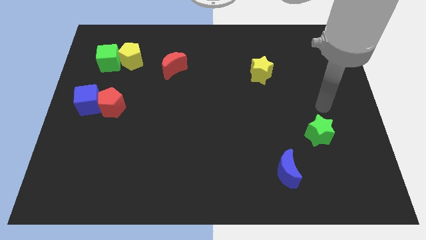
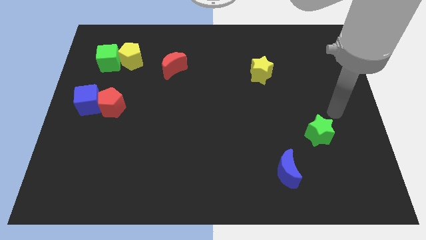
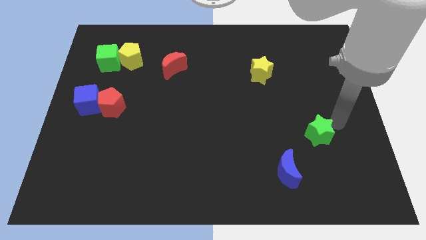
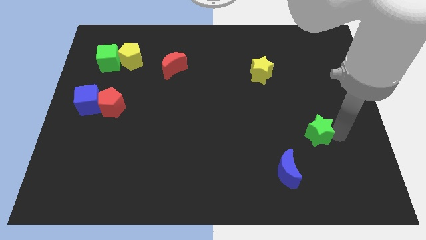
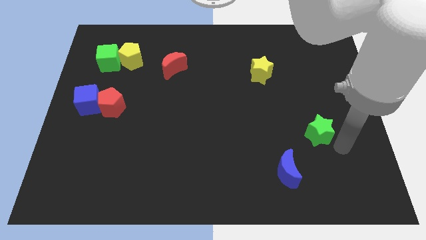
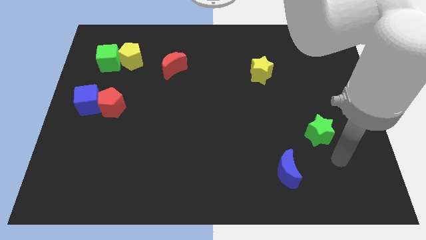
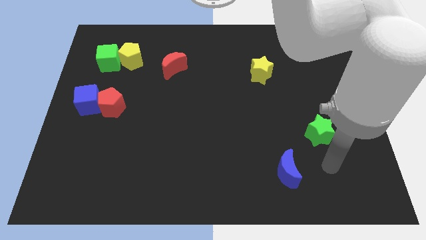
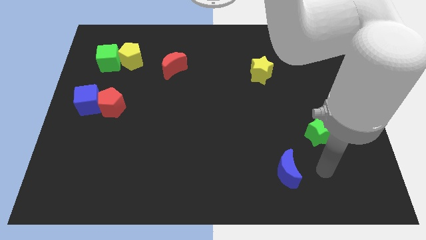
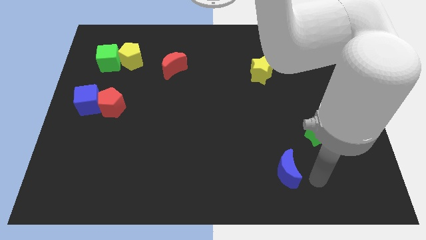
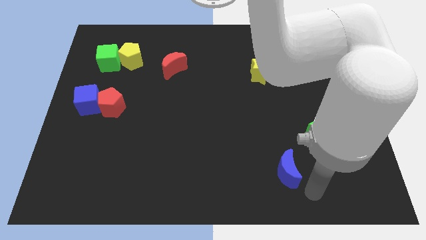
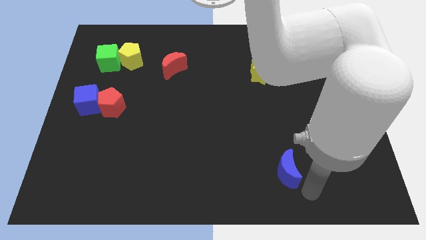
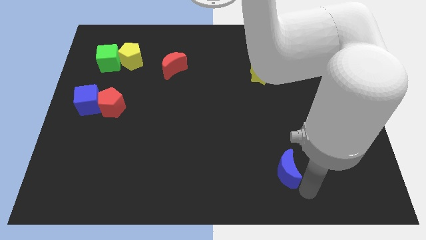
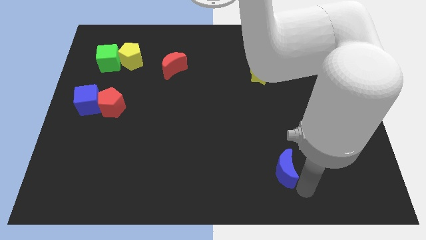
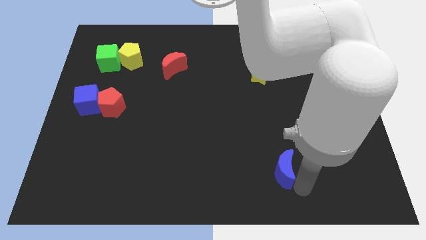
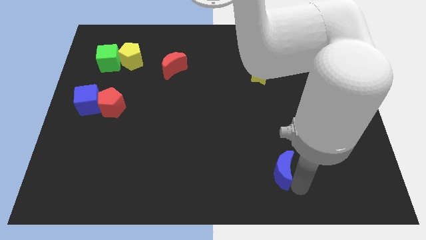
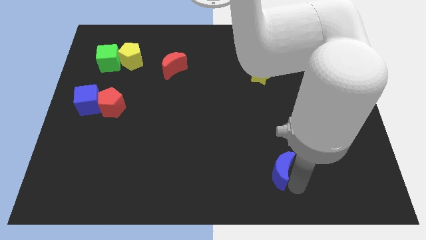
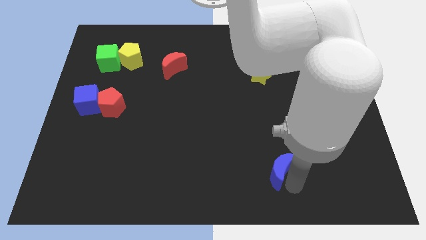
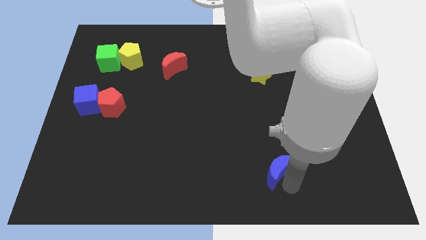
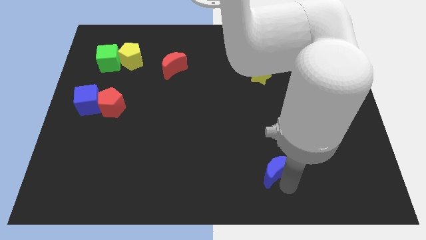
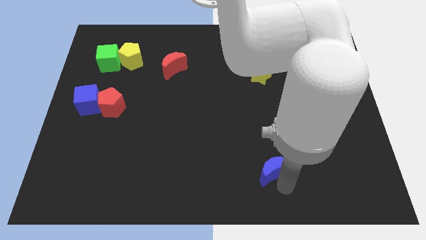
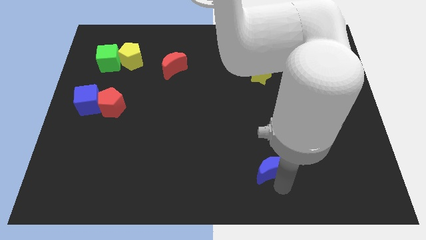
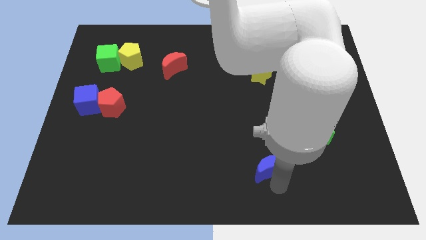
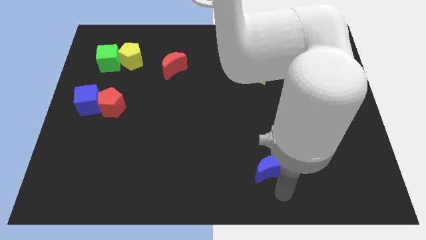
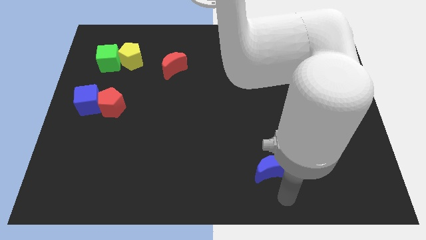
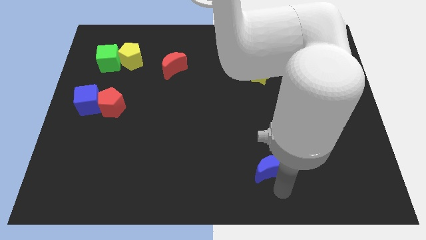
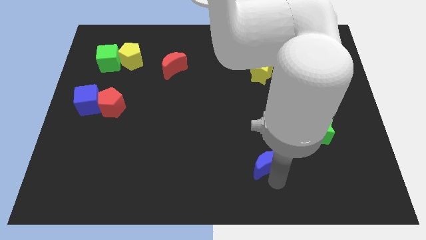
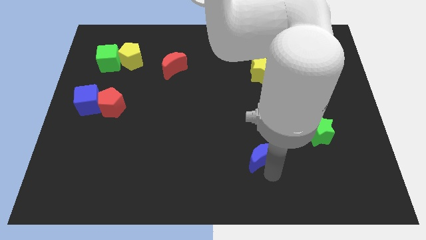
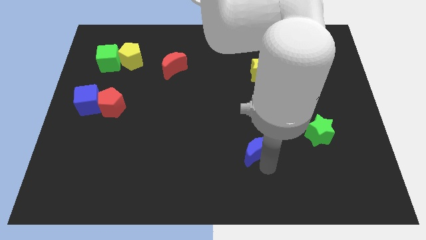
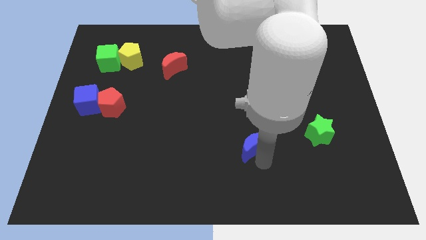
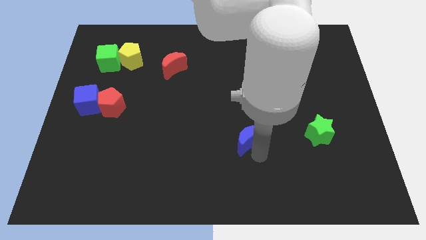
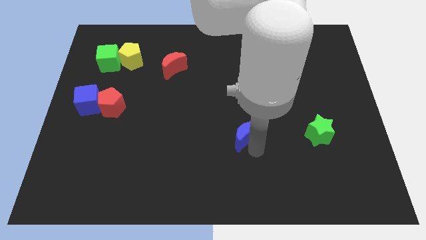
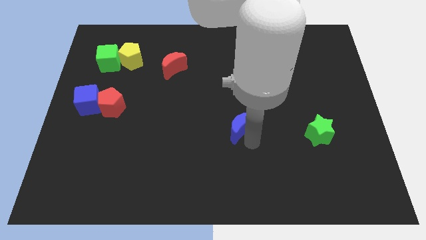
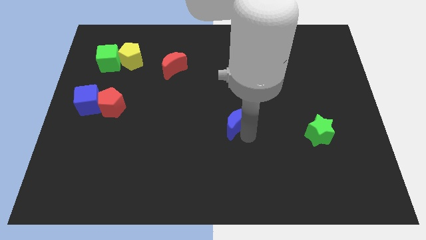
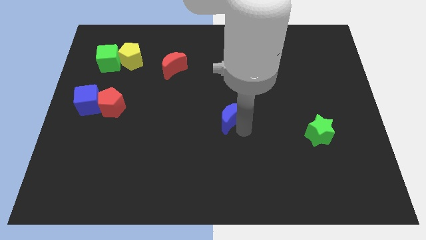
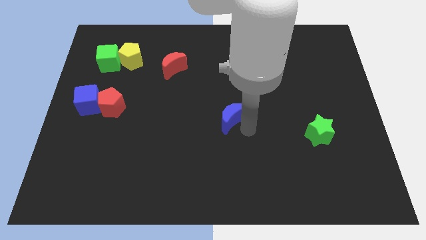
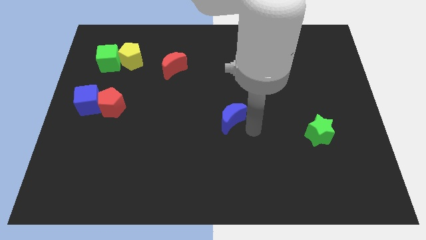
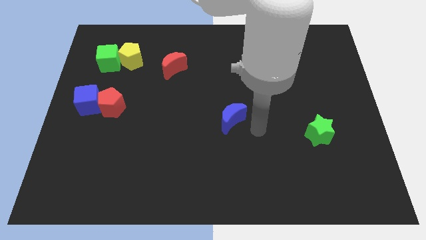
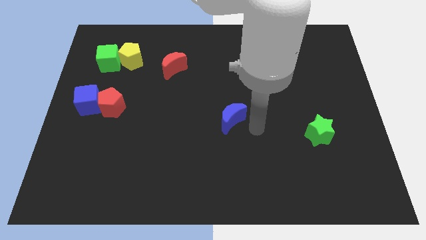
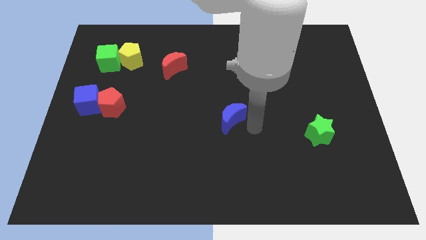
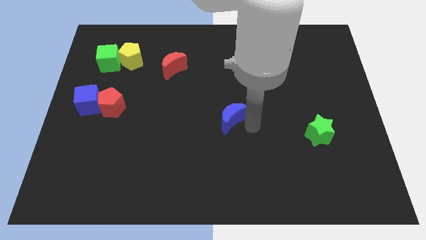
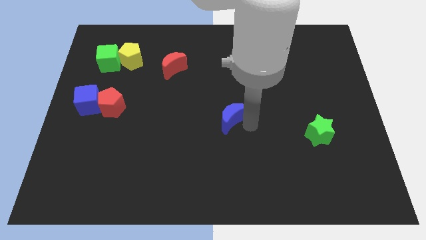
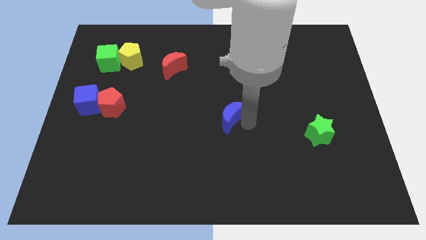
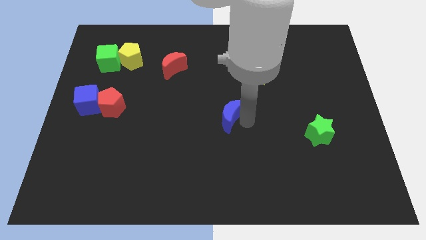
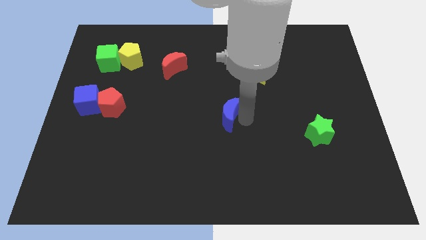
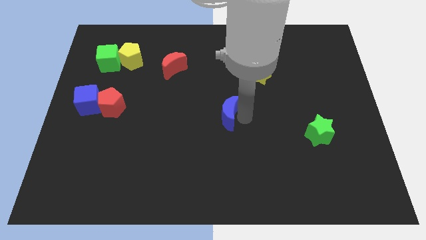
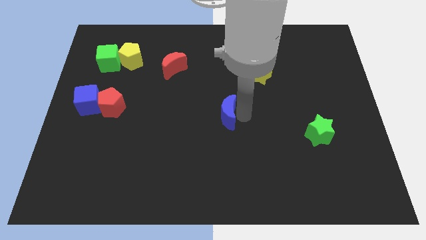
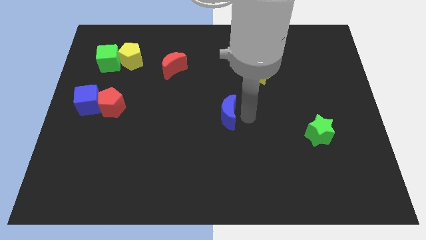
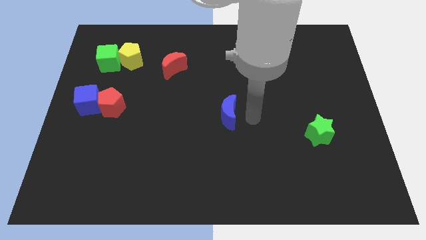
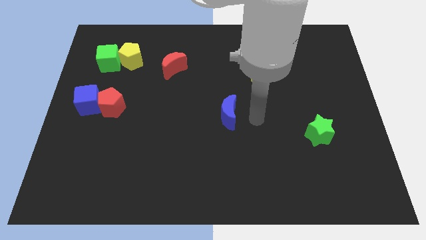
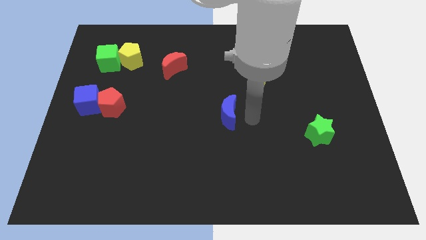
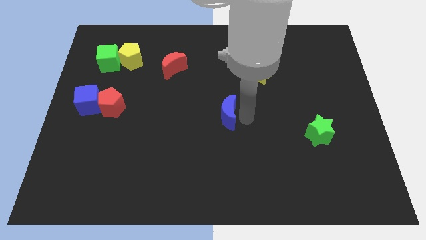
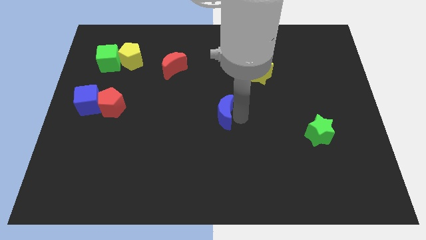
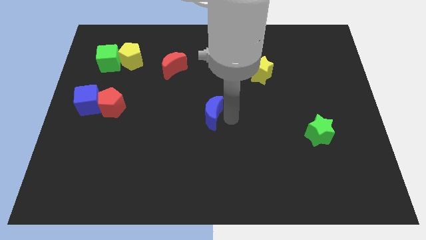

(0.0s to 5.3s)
move the blue moon upwards and then to the left

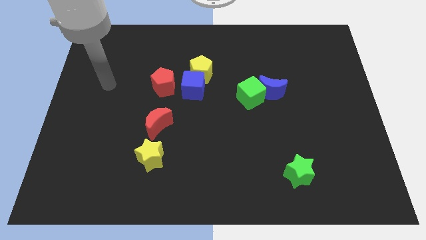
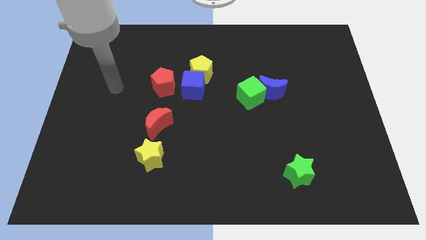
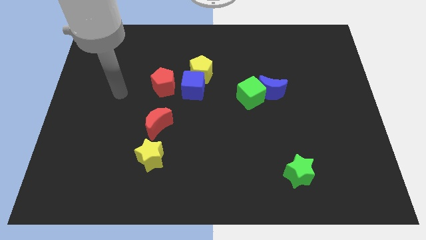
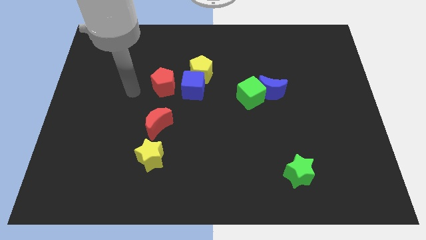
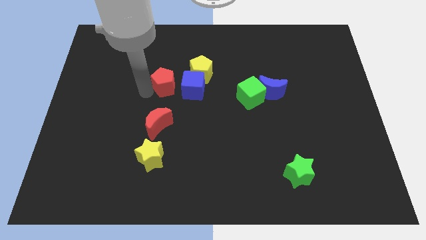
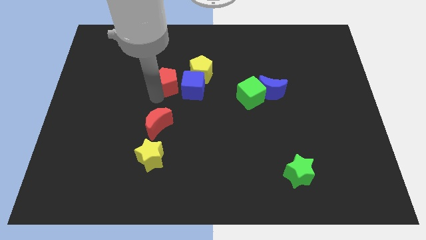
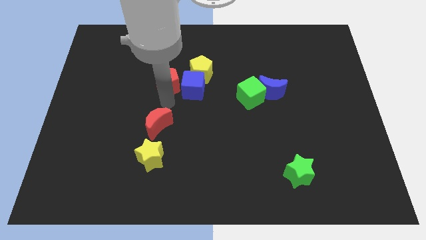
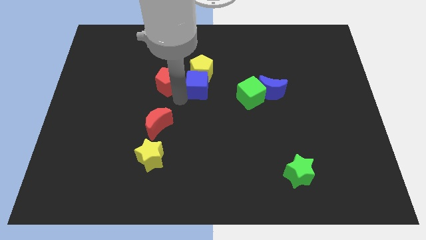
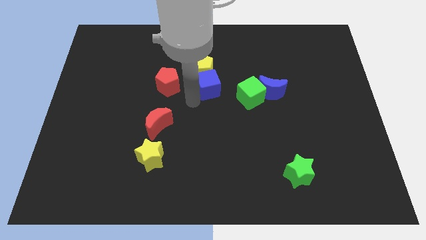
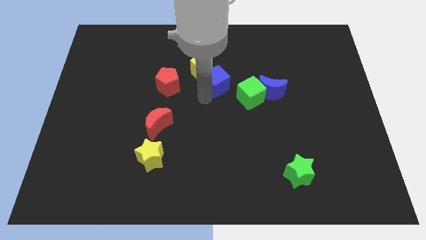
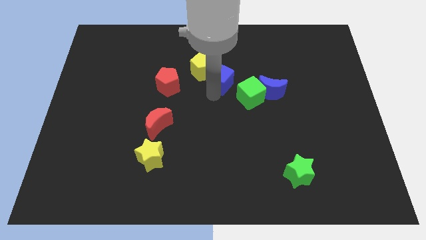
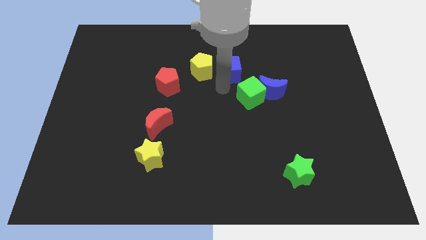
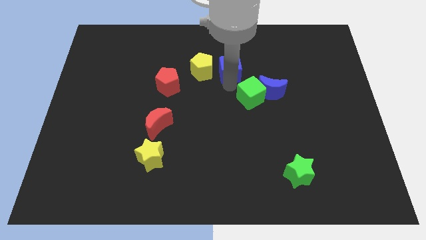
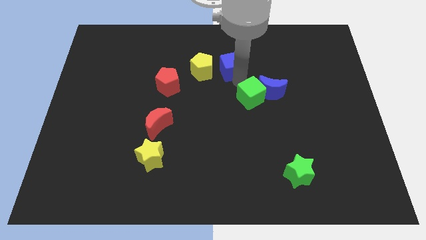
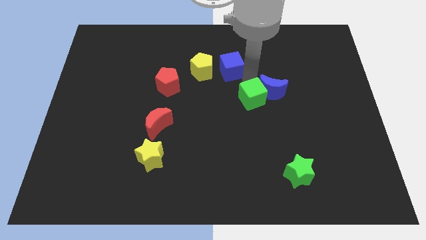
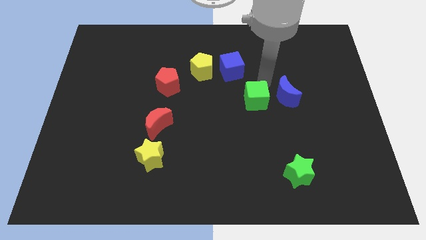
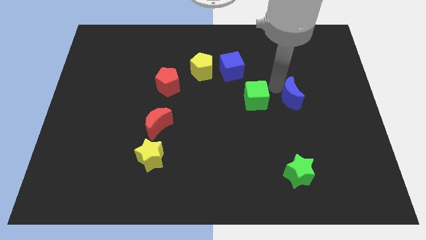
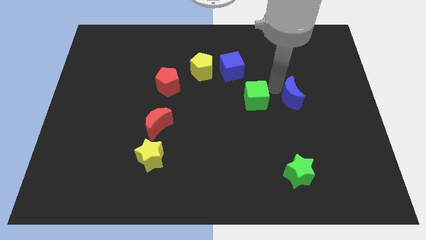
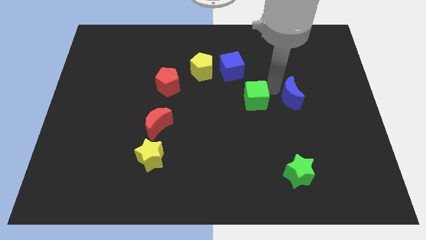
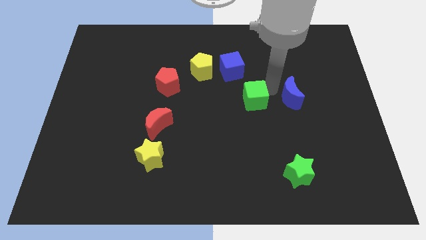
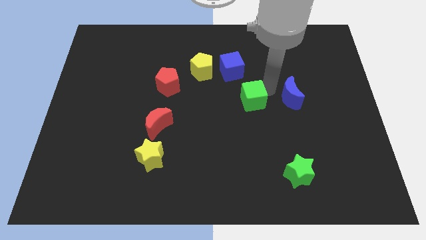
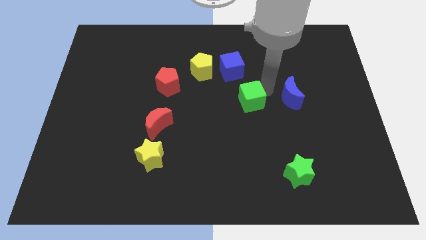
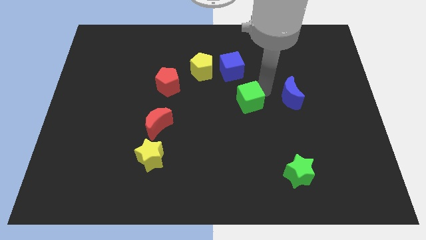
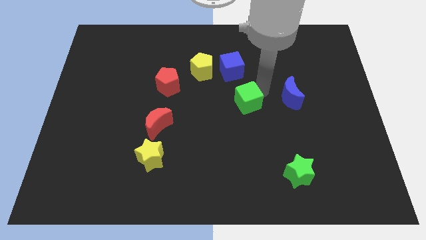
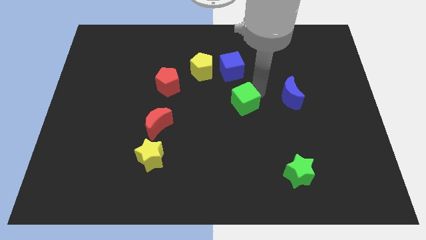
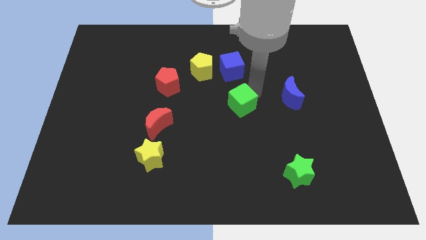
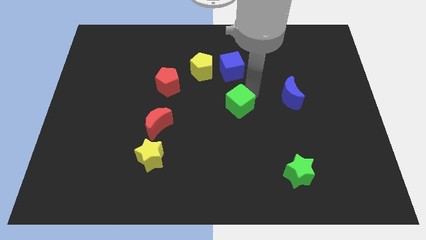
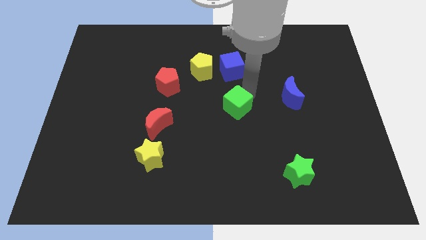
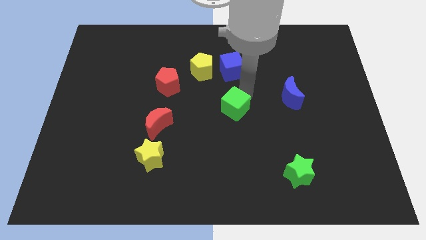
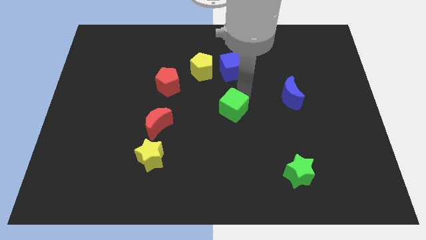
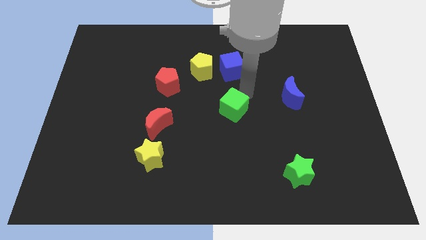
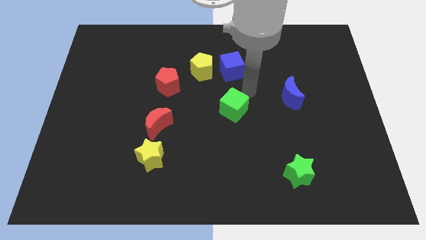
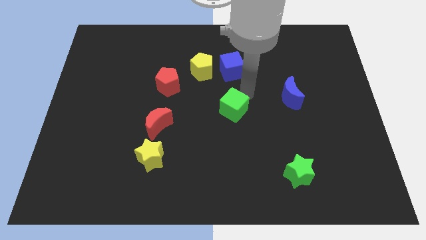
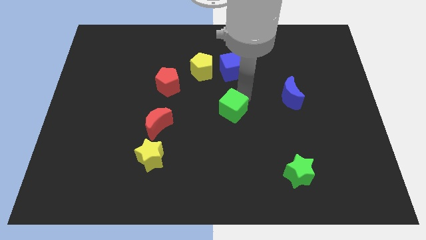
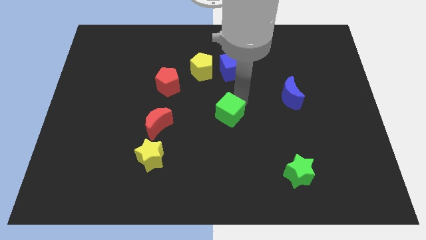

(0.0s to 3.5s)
move the green cube down and left diagonally somewhat

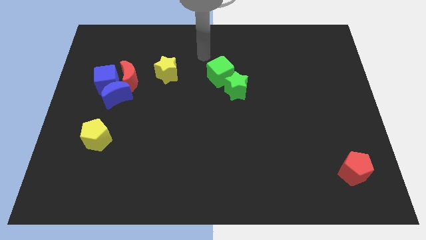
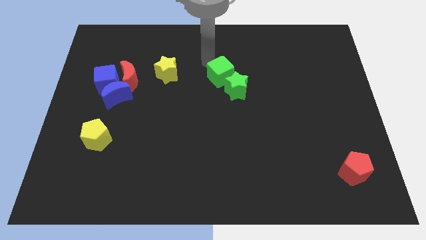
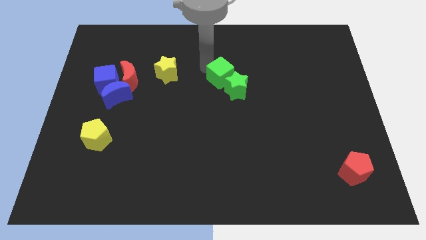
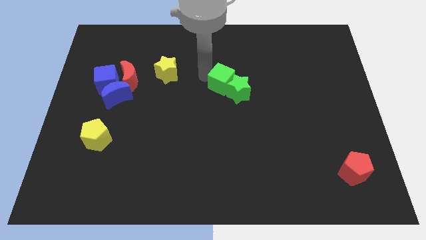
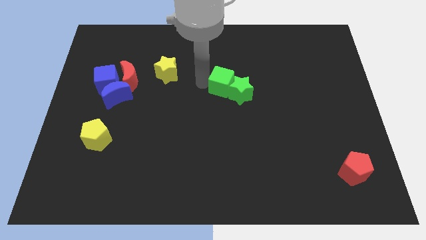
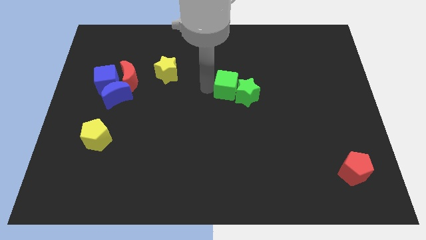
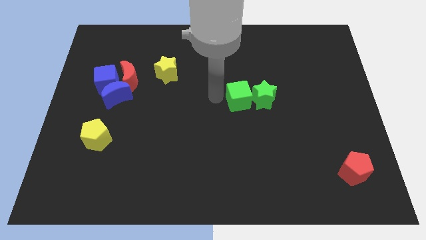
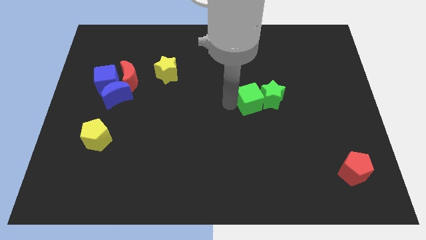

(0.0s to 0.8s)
move the green star to the right a bit
